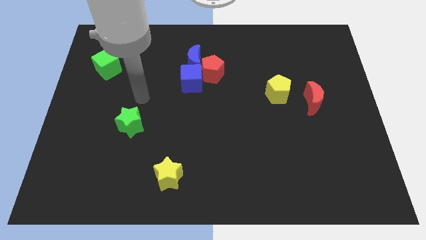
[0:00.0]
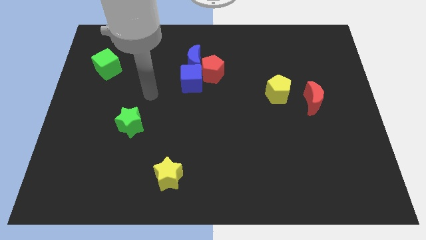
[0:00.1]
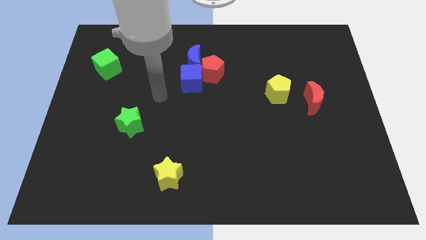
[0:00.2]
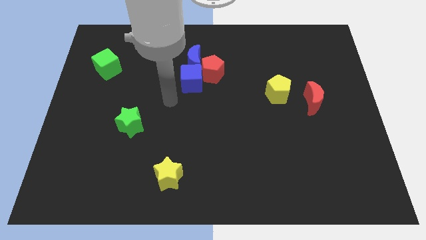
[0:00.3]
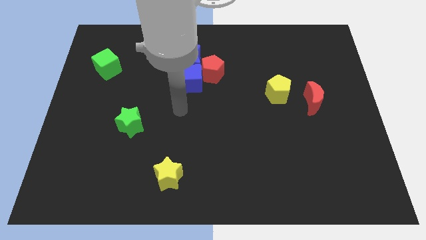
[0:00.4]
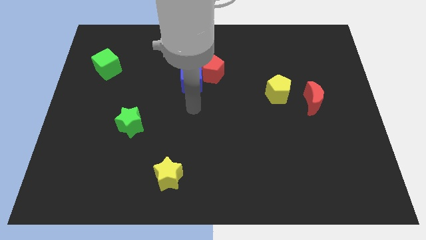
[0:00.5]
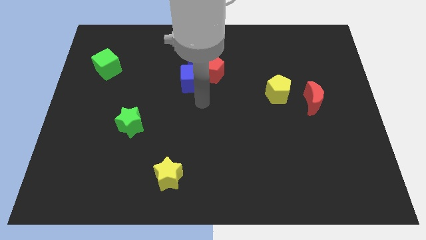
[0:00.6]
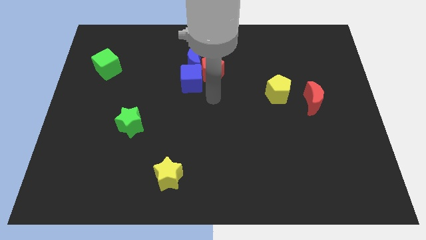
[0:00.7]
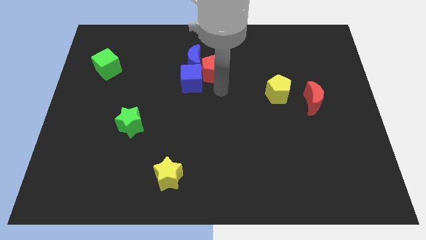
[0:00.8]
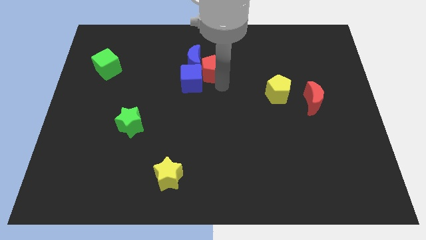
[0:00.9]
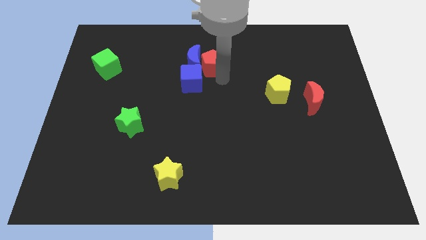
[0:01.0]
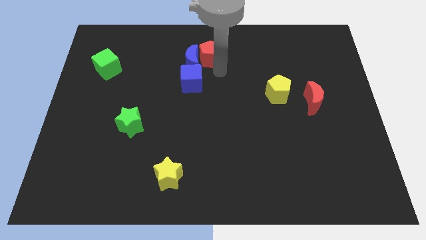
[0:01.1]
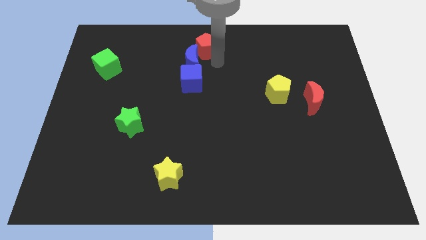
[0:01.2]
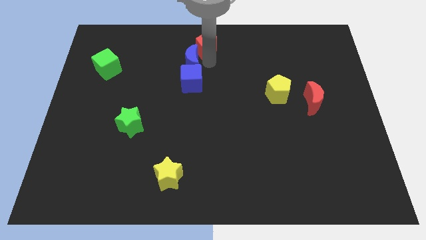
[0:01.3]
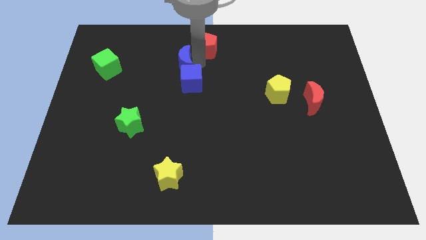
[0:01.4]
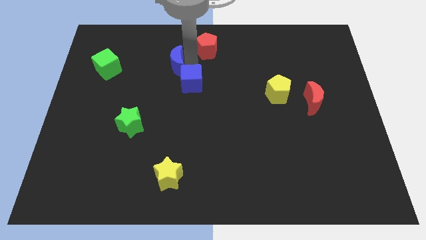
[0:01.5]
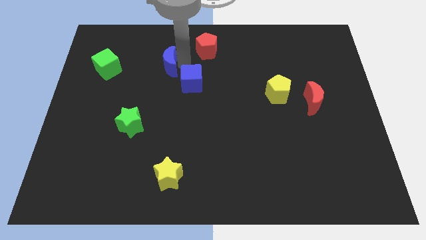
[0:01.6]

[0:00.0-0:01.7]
put the blue moon to the right of the green cube

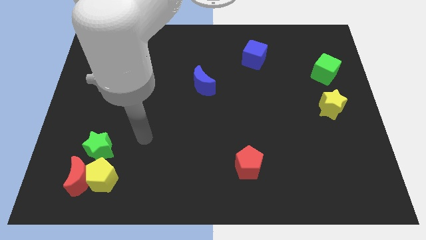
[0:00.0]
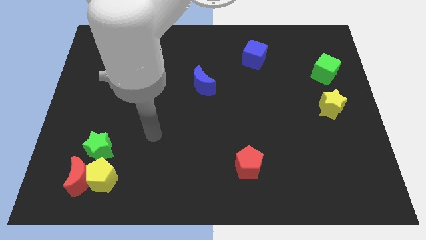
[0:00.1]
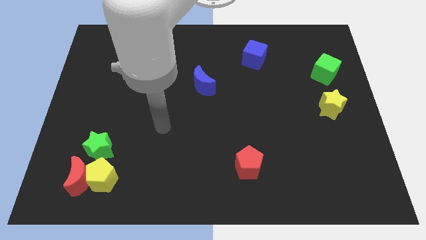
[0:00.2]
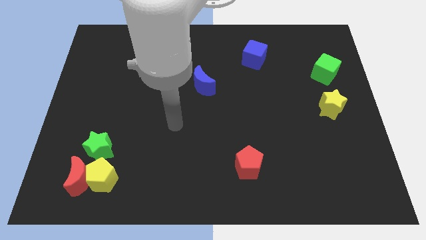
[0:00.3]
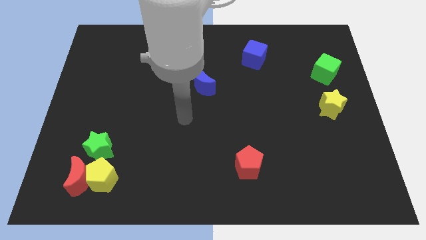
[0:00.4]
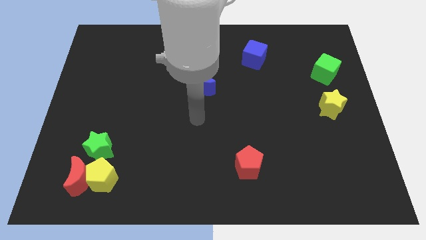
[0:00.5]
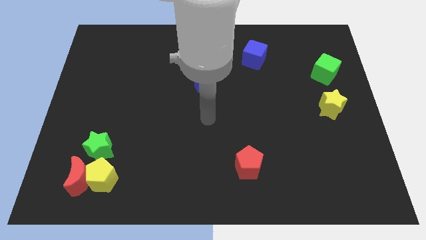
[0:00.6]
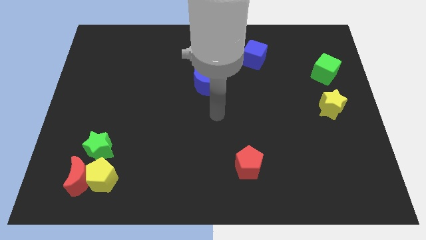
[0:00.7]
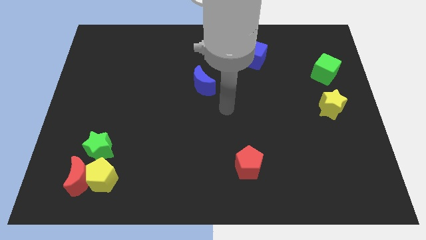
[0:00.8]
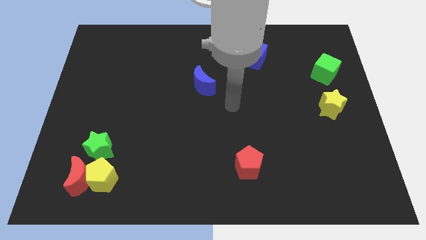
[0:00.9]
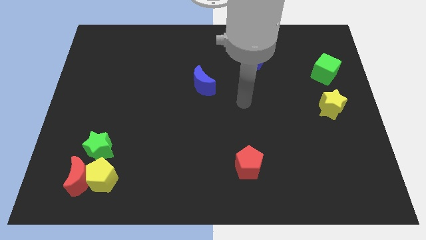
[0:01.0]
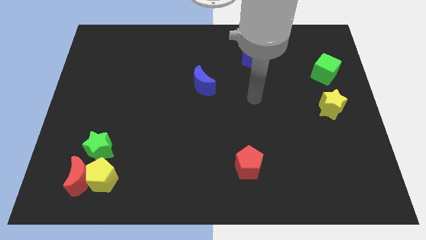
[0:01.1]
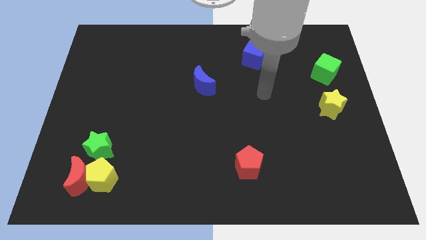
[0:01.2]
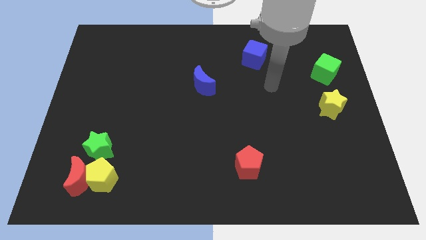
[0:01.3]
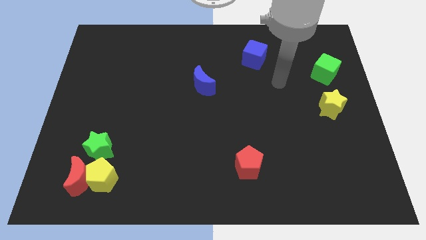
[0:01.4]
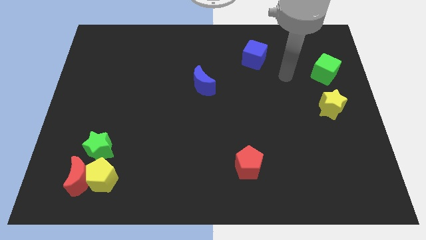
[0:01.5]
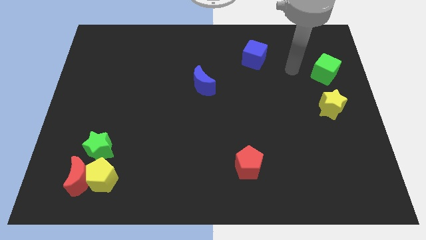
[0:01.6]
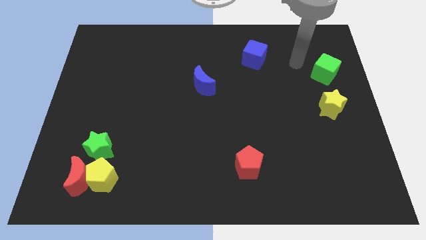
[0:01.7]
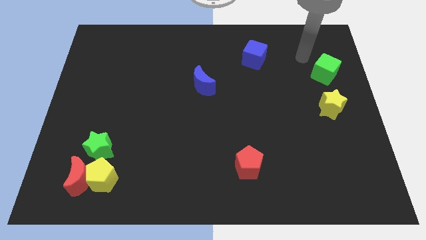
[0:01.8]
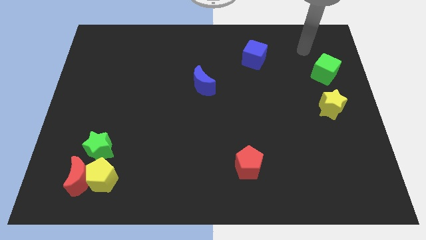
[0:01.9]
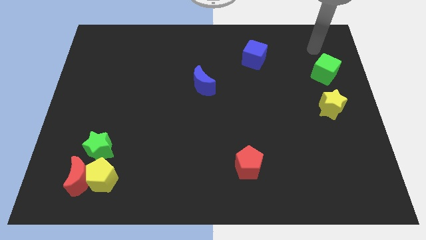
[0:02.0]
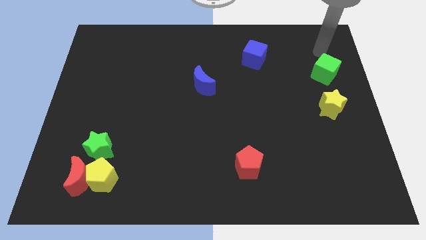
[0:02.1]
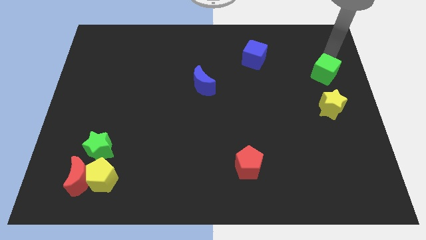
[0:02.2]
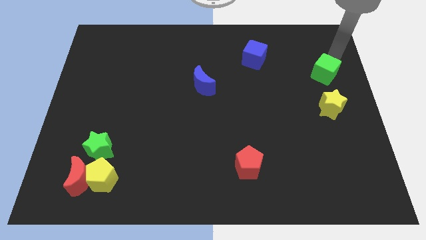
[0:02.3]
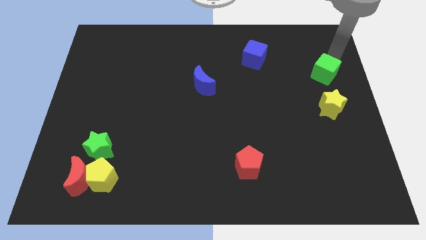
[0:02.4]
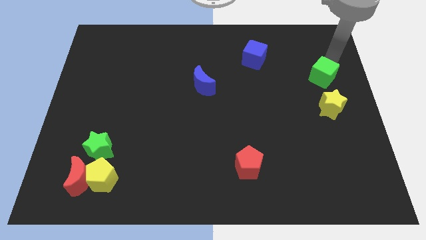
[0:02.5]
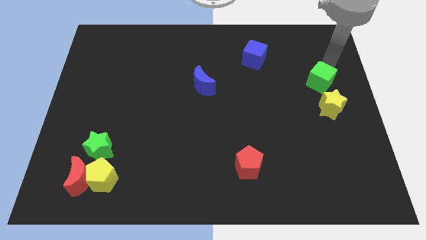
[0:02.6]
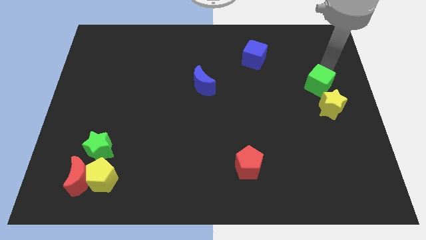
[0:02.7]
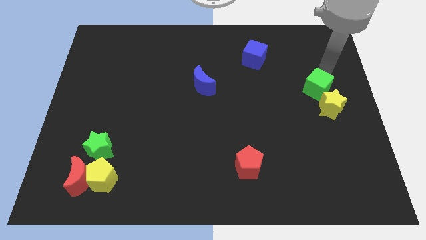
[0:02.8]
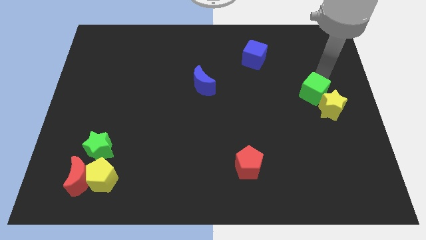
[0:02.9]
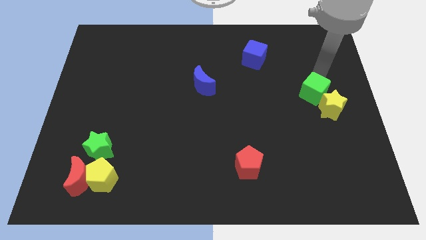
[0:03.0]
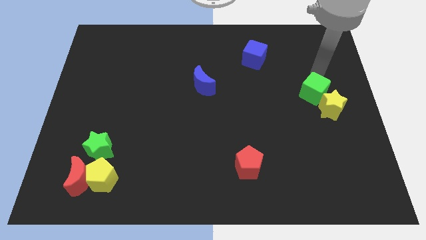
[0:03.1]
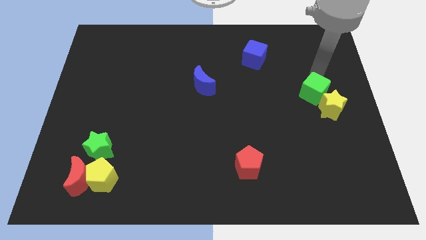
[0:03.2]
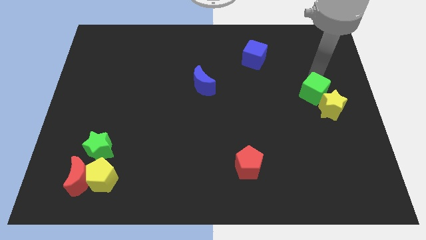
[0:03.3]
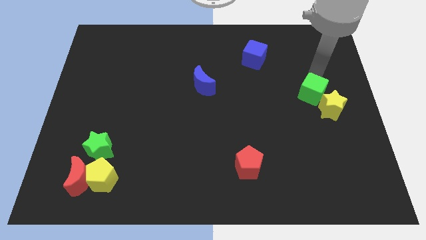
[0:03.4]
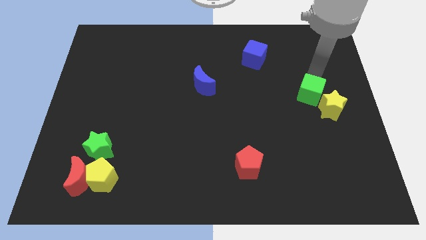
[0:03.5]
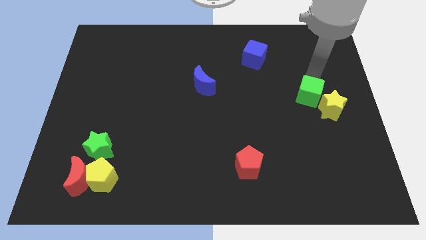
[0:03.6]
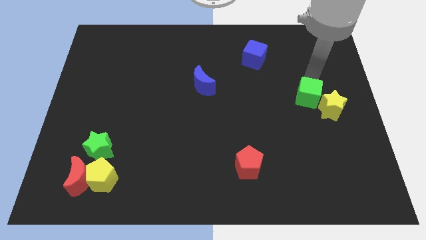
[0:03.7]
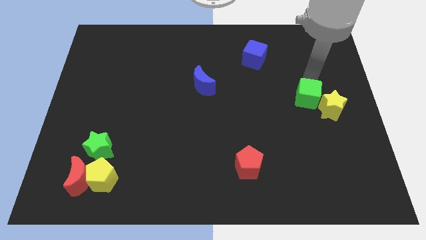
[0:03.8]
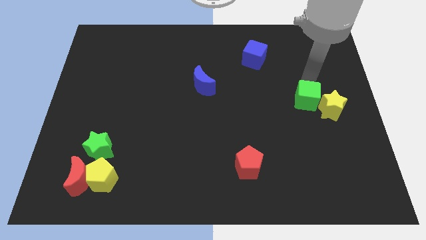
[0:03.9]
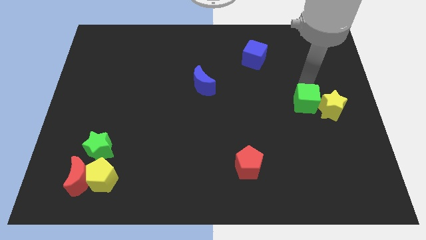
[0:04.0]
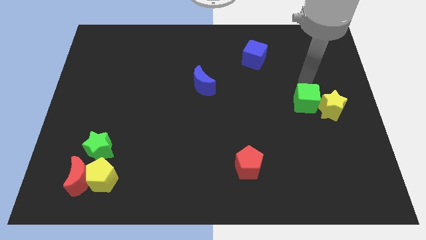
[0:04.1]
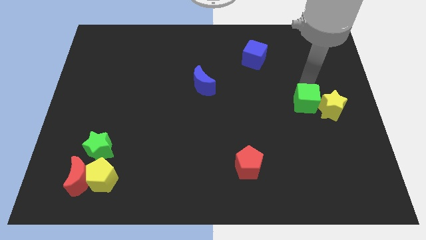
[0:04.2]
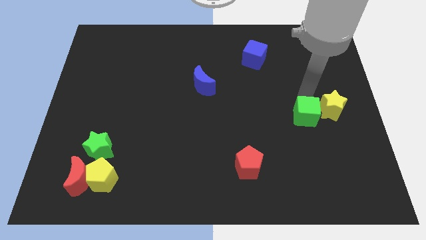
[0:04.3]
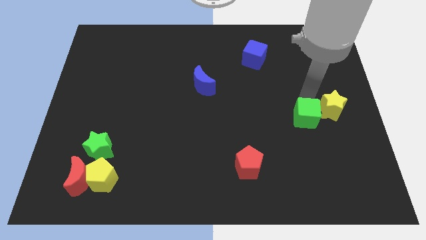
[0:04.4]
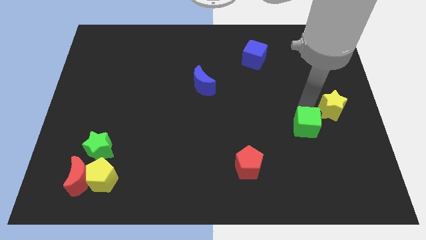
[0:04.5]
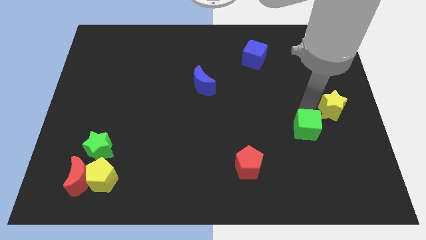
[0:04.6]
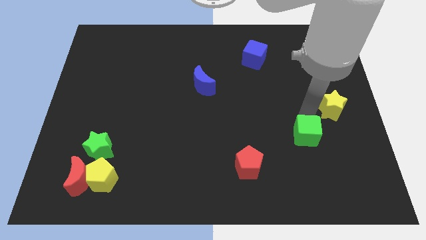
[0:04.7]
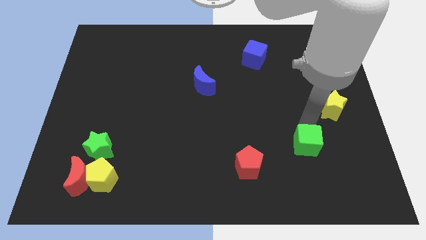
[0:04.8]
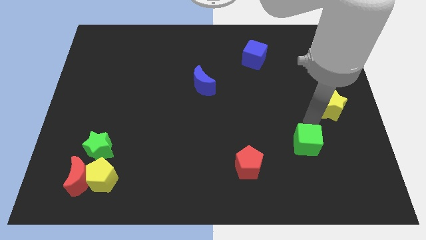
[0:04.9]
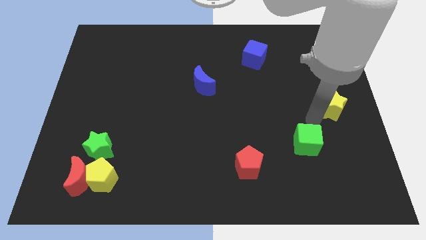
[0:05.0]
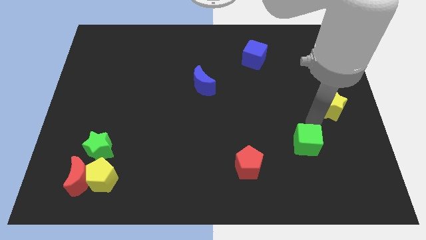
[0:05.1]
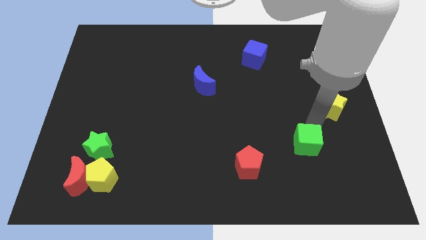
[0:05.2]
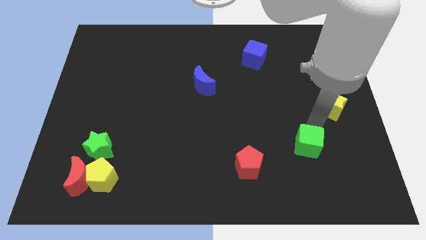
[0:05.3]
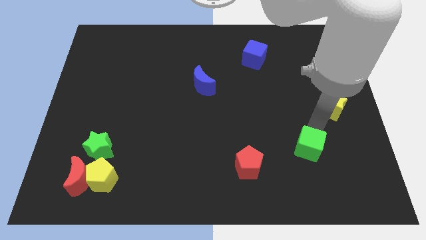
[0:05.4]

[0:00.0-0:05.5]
push the green cube to the right of the red pentagon

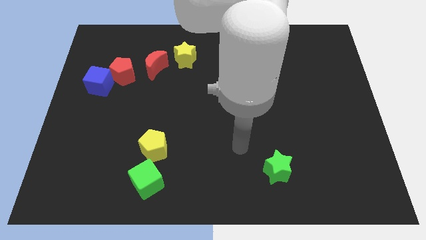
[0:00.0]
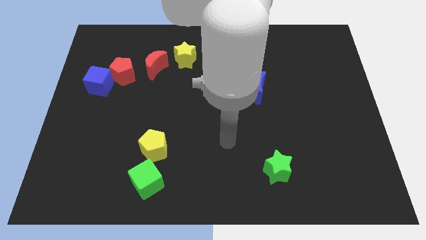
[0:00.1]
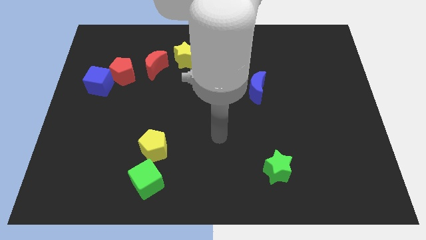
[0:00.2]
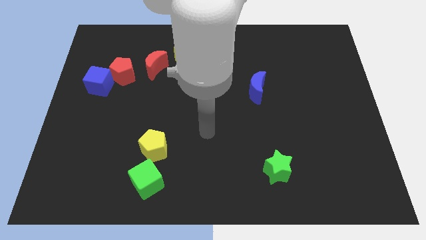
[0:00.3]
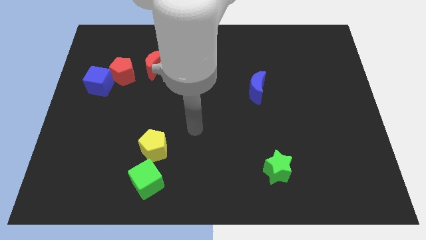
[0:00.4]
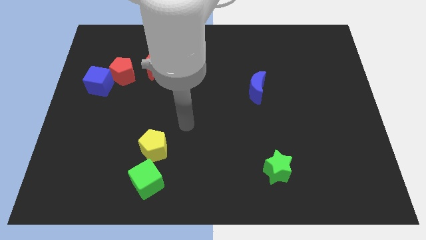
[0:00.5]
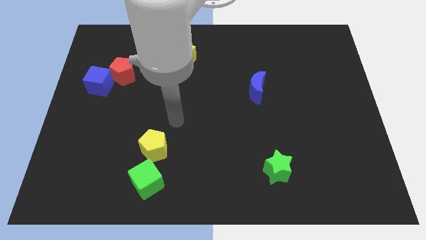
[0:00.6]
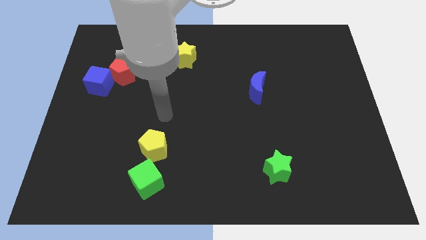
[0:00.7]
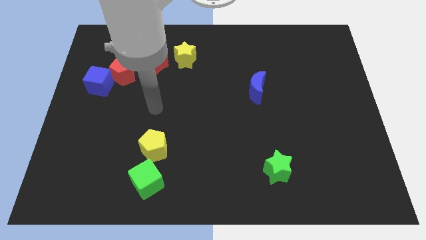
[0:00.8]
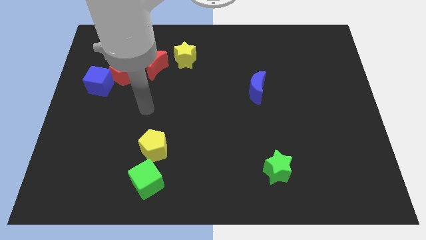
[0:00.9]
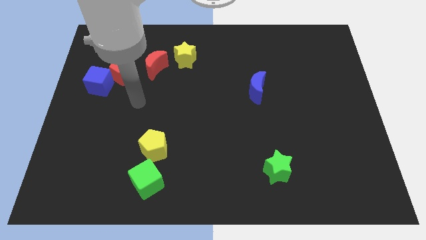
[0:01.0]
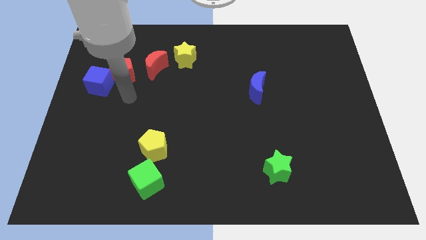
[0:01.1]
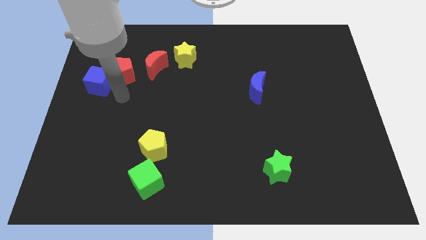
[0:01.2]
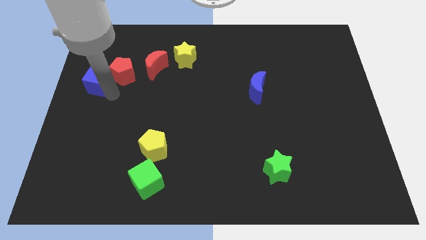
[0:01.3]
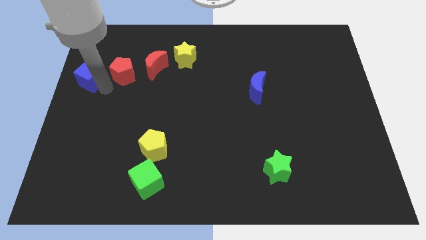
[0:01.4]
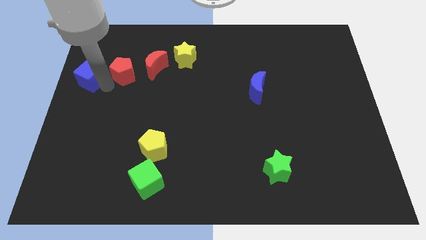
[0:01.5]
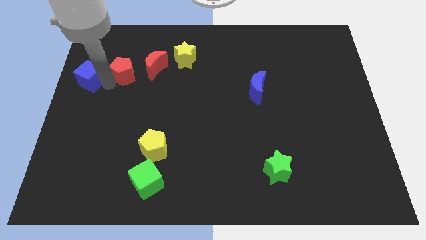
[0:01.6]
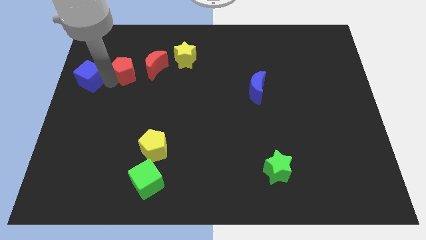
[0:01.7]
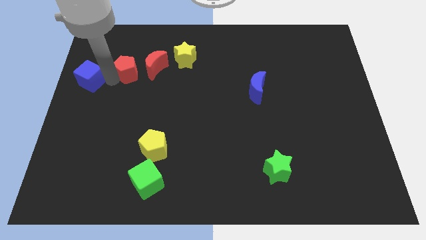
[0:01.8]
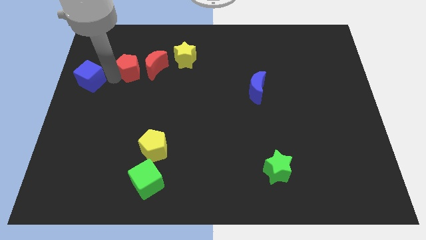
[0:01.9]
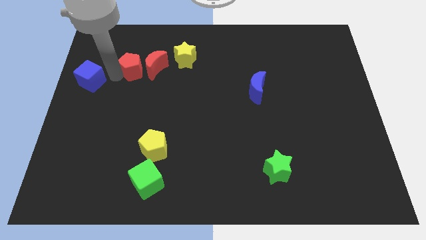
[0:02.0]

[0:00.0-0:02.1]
push the red pentagon just left of the yellow star
